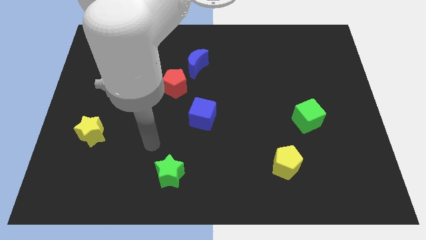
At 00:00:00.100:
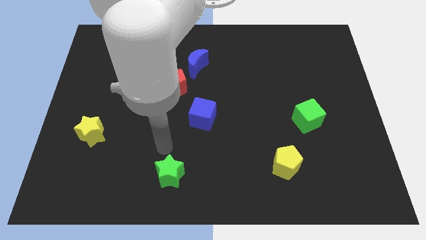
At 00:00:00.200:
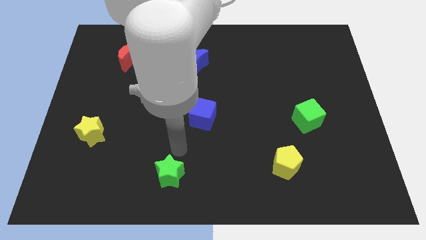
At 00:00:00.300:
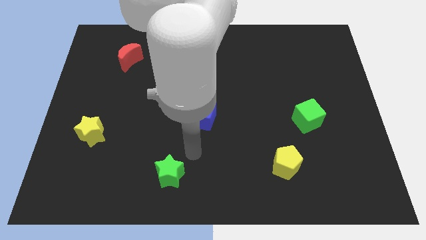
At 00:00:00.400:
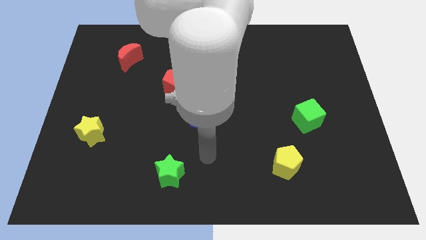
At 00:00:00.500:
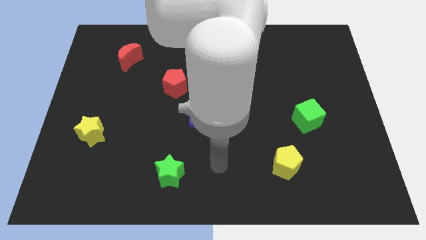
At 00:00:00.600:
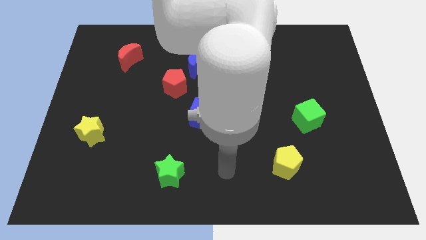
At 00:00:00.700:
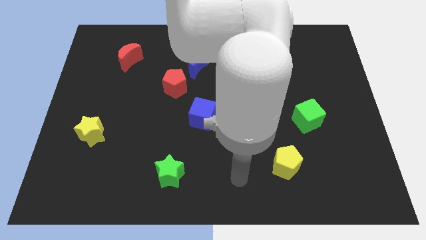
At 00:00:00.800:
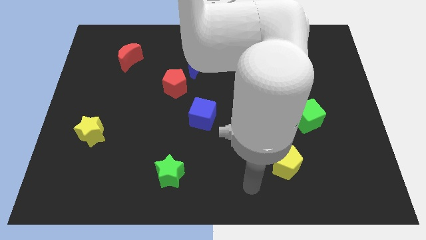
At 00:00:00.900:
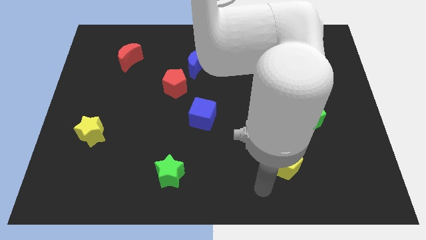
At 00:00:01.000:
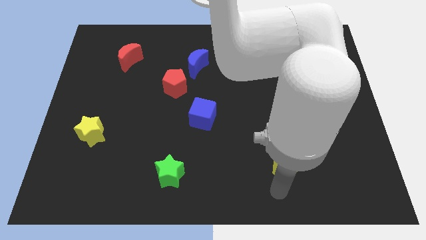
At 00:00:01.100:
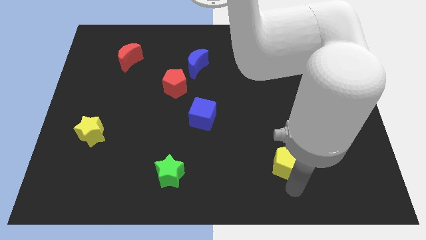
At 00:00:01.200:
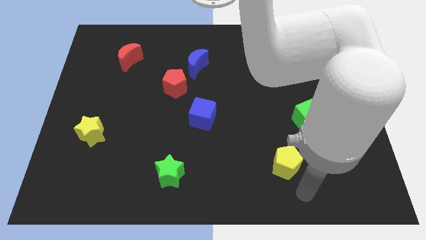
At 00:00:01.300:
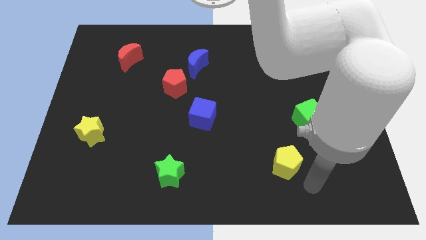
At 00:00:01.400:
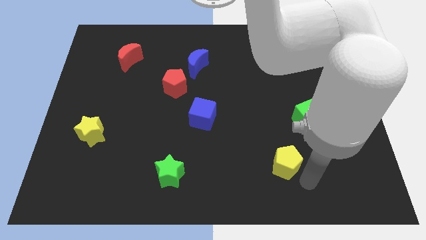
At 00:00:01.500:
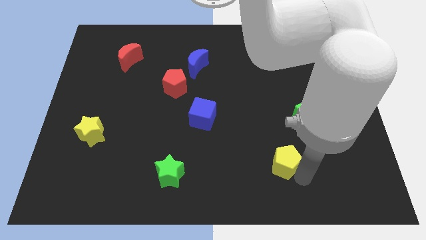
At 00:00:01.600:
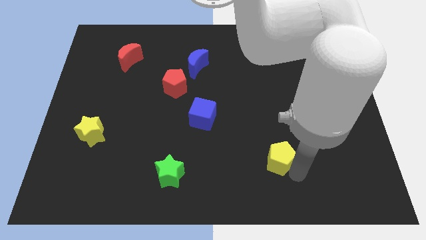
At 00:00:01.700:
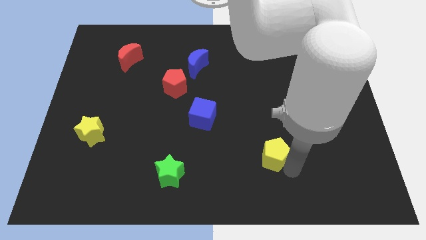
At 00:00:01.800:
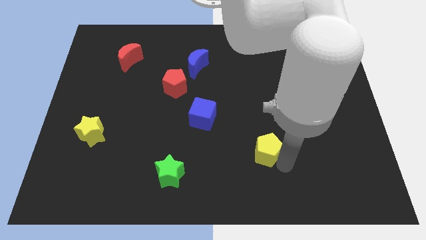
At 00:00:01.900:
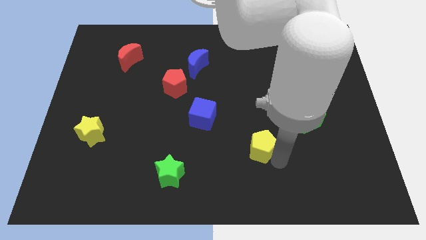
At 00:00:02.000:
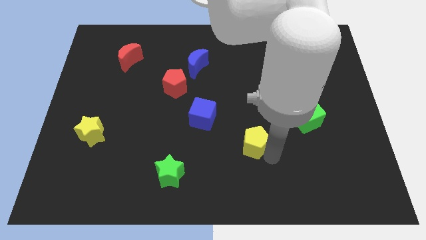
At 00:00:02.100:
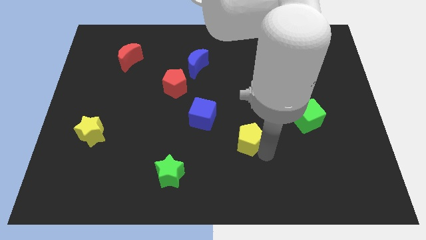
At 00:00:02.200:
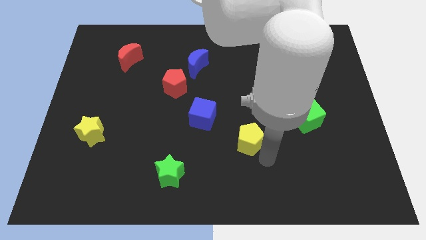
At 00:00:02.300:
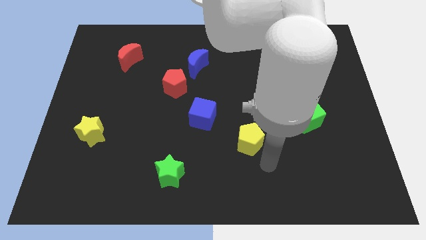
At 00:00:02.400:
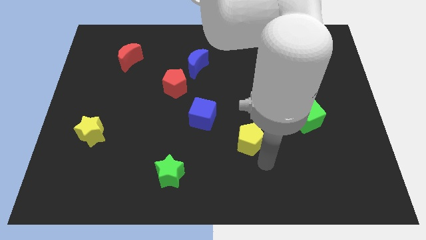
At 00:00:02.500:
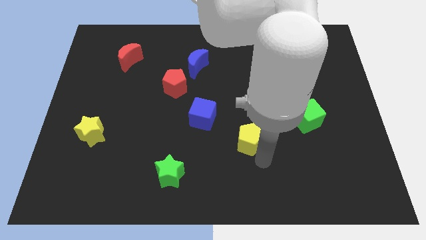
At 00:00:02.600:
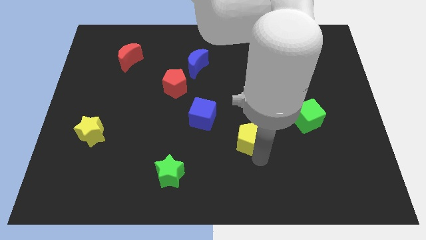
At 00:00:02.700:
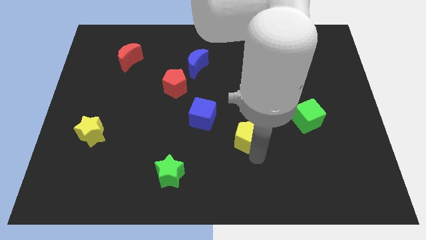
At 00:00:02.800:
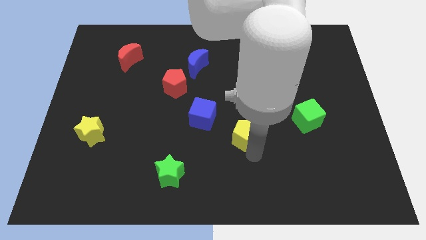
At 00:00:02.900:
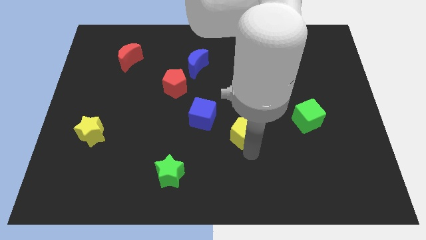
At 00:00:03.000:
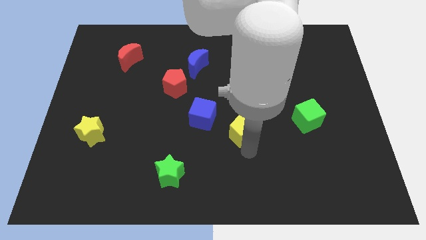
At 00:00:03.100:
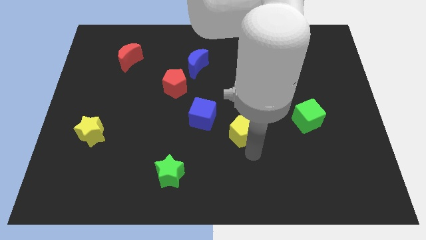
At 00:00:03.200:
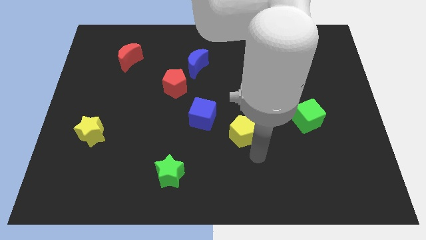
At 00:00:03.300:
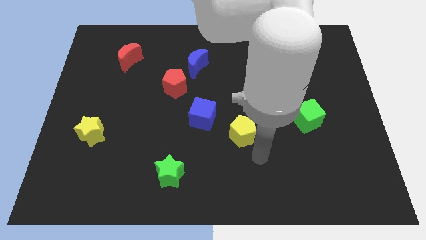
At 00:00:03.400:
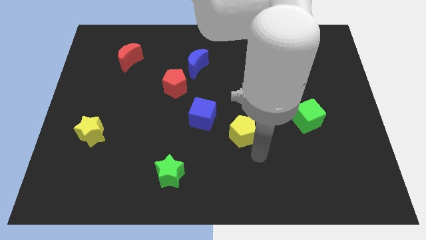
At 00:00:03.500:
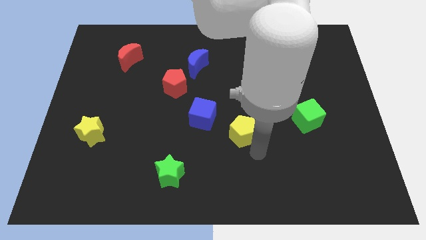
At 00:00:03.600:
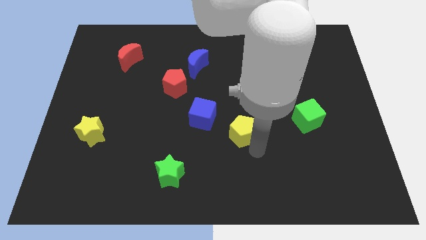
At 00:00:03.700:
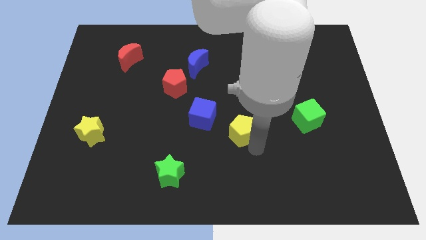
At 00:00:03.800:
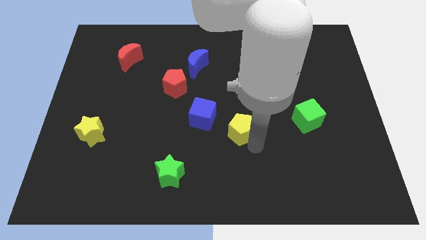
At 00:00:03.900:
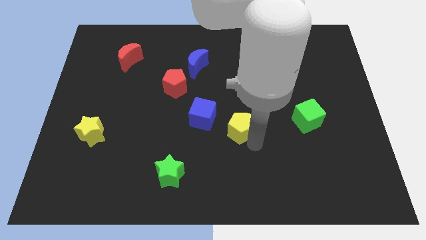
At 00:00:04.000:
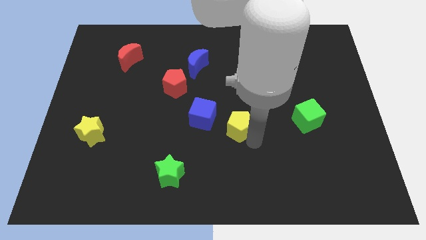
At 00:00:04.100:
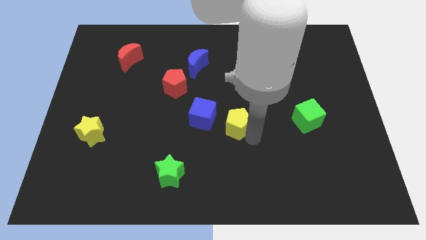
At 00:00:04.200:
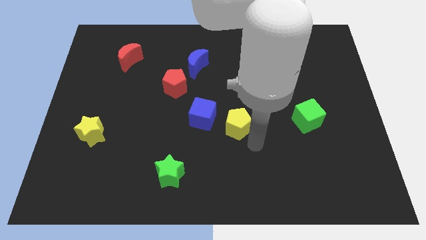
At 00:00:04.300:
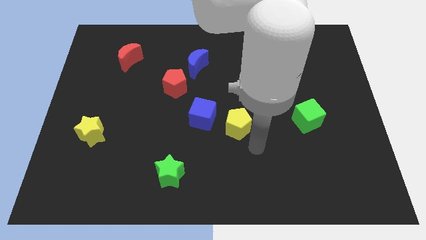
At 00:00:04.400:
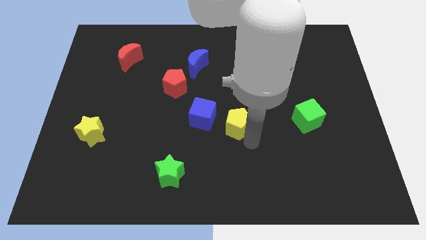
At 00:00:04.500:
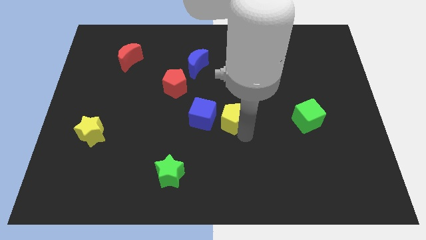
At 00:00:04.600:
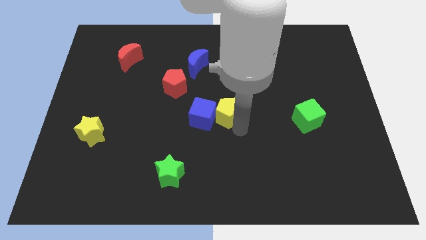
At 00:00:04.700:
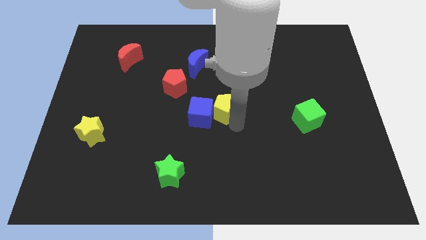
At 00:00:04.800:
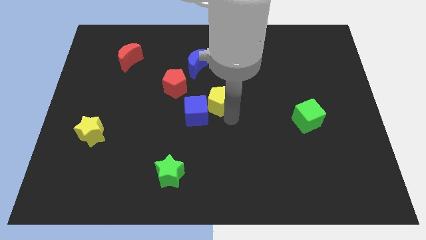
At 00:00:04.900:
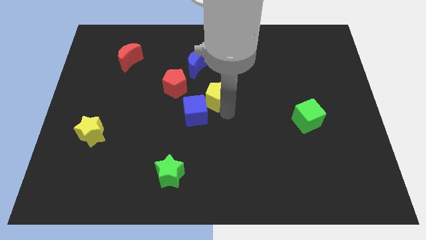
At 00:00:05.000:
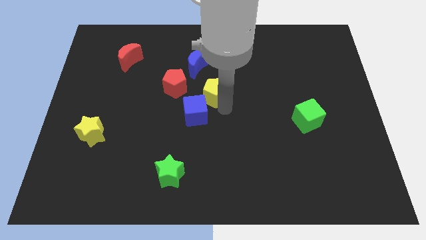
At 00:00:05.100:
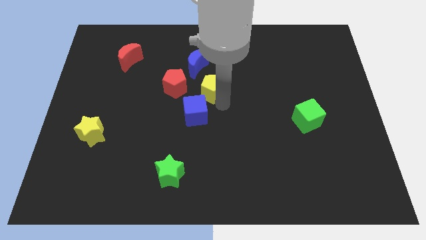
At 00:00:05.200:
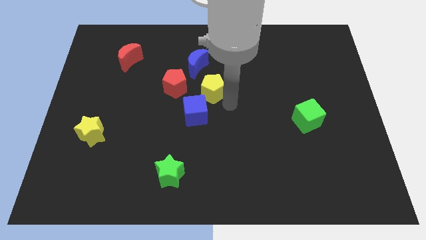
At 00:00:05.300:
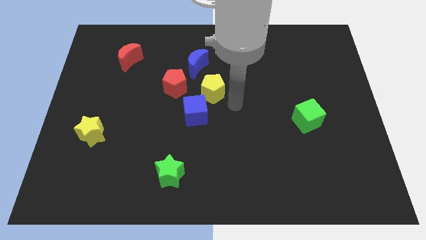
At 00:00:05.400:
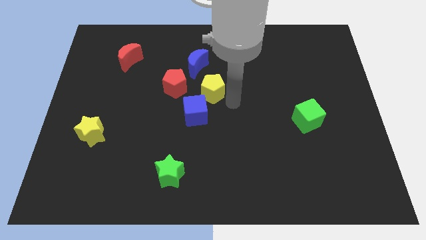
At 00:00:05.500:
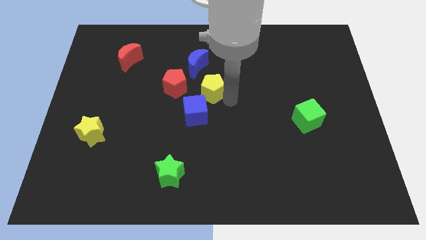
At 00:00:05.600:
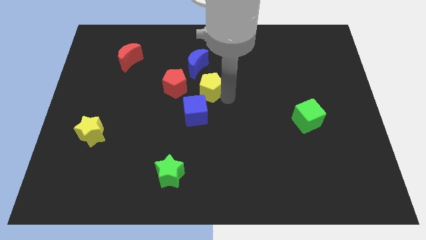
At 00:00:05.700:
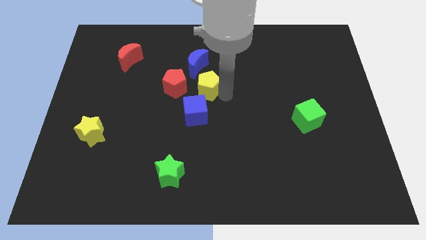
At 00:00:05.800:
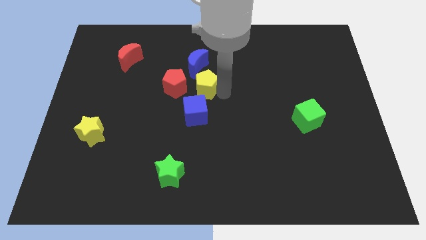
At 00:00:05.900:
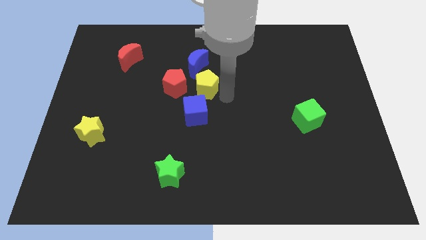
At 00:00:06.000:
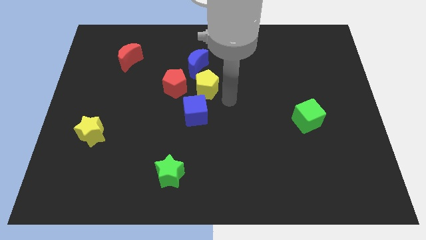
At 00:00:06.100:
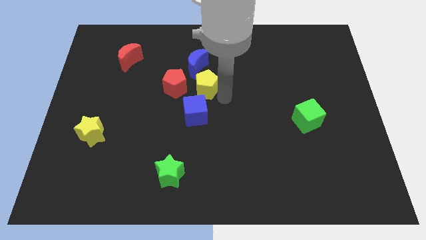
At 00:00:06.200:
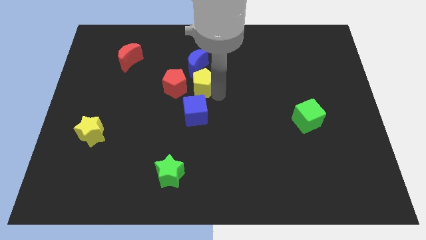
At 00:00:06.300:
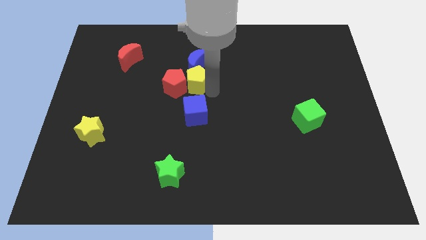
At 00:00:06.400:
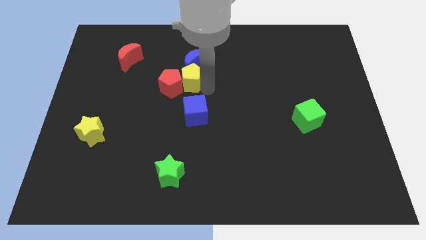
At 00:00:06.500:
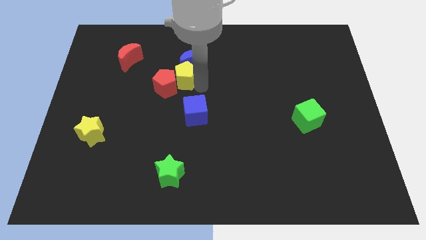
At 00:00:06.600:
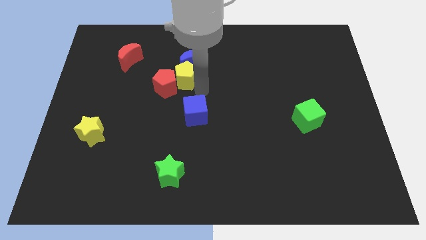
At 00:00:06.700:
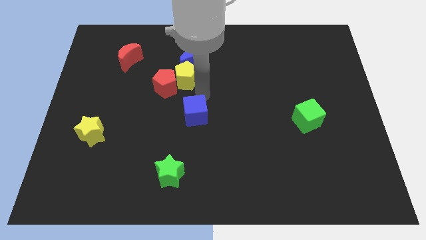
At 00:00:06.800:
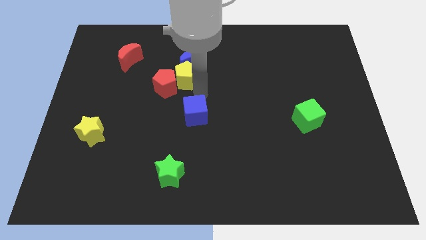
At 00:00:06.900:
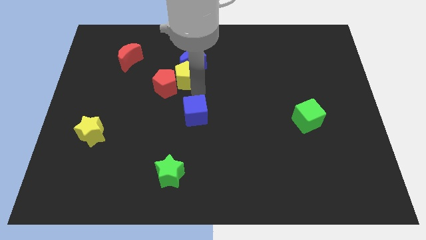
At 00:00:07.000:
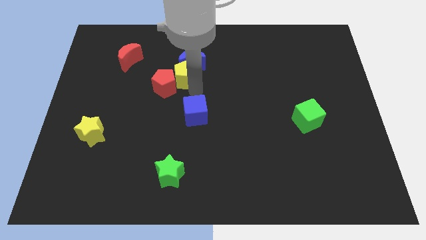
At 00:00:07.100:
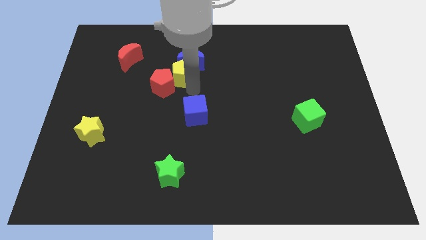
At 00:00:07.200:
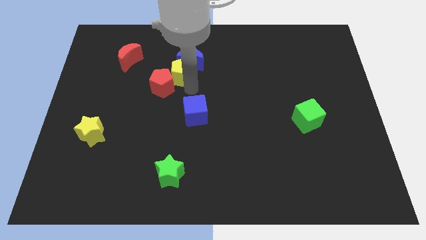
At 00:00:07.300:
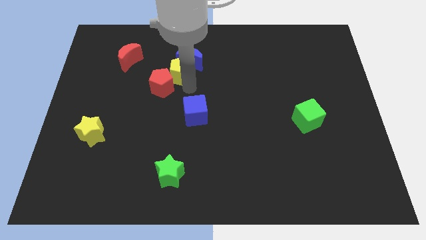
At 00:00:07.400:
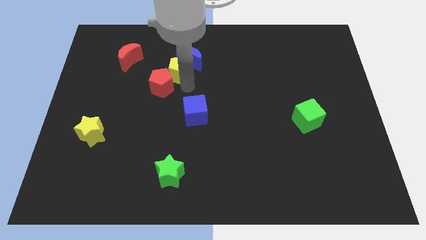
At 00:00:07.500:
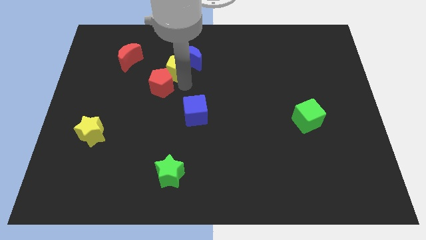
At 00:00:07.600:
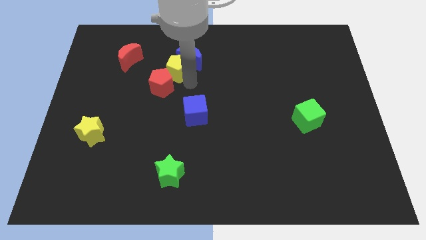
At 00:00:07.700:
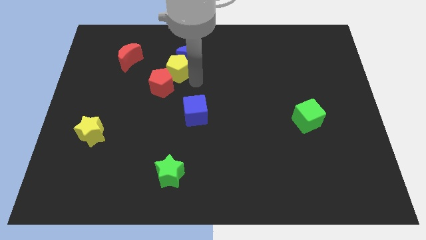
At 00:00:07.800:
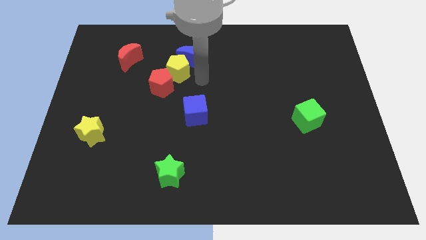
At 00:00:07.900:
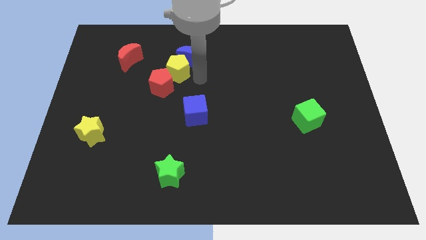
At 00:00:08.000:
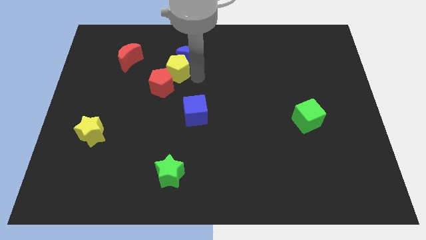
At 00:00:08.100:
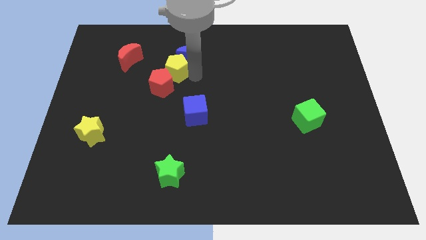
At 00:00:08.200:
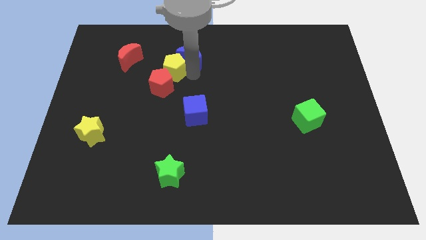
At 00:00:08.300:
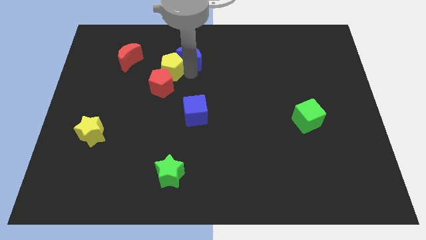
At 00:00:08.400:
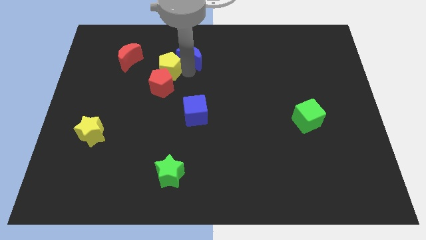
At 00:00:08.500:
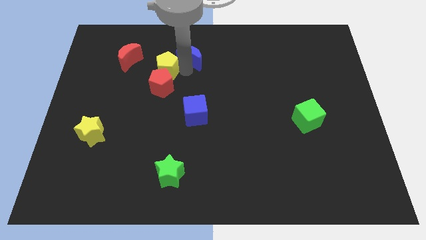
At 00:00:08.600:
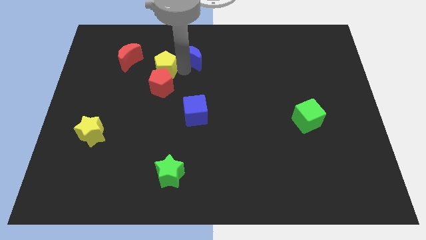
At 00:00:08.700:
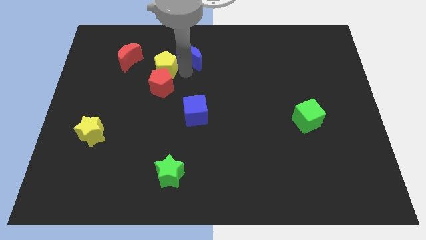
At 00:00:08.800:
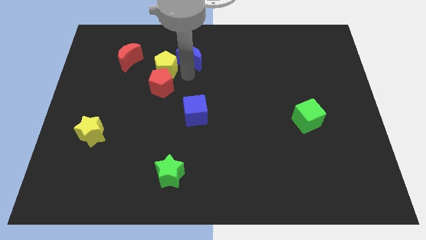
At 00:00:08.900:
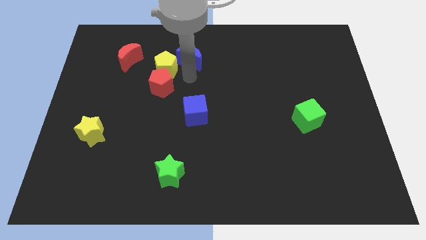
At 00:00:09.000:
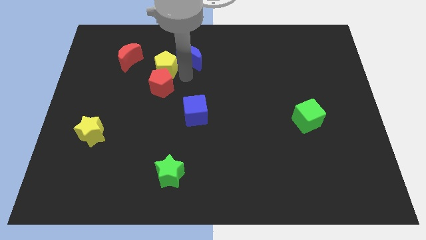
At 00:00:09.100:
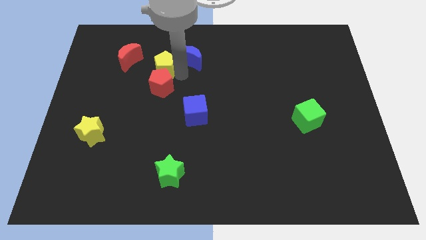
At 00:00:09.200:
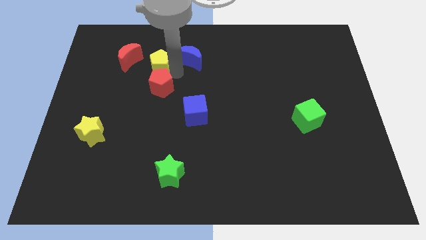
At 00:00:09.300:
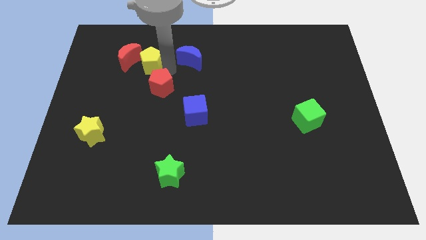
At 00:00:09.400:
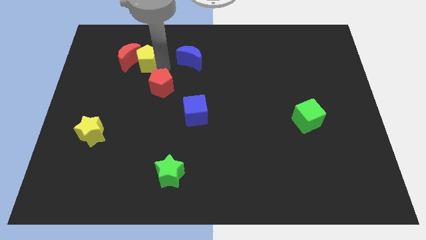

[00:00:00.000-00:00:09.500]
slide the yellow pentagon next to the red moon
